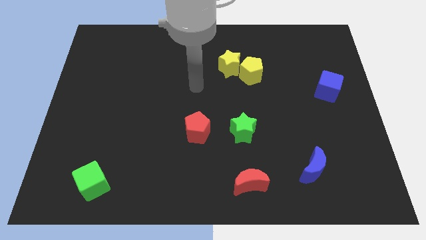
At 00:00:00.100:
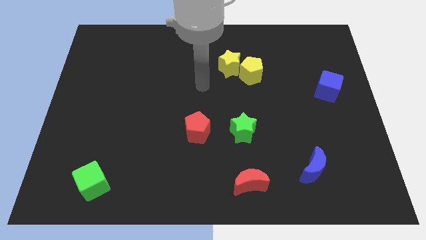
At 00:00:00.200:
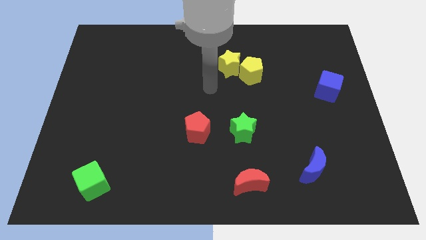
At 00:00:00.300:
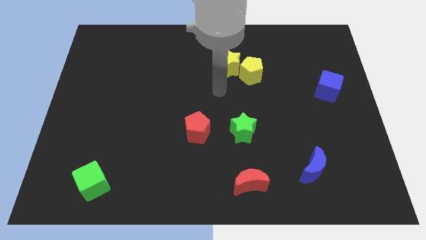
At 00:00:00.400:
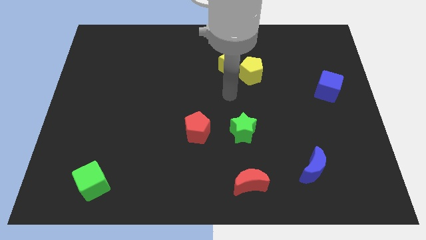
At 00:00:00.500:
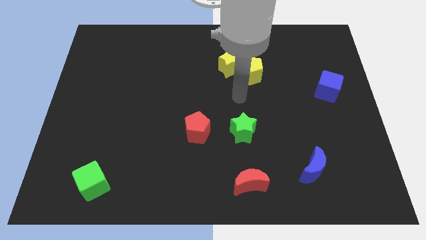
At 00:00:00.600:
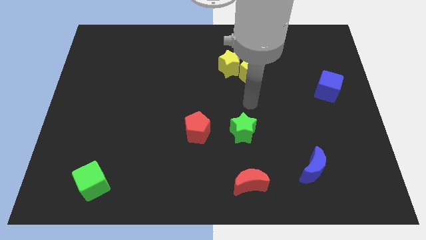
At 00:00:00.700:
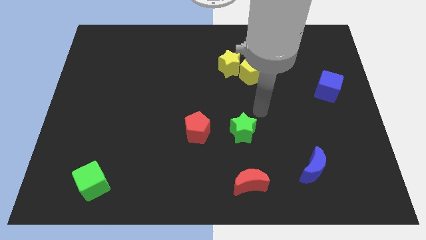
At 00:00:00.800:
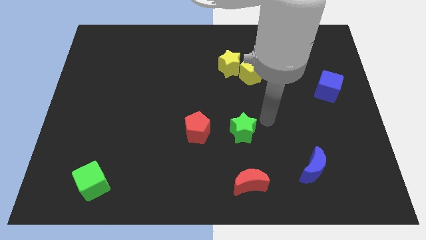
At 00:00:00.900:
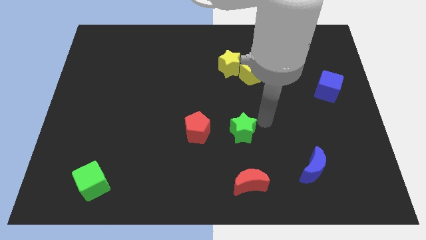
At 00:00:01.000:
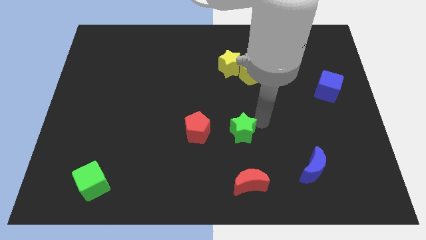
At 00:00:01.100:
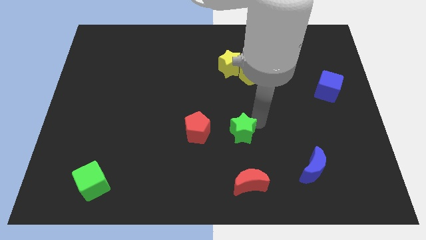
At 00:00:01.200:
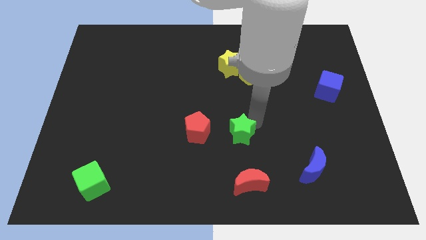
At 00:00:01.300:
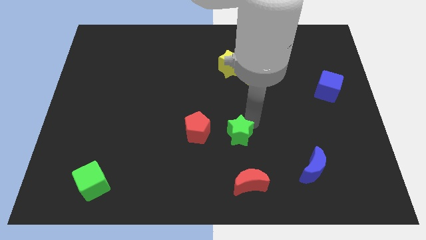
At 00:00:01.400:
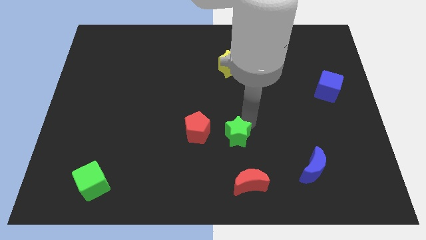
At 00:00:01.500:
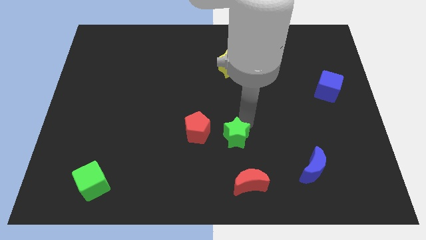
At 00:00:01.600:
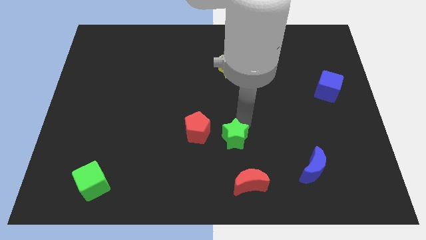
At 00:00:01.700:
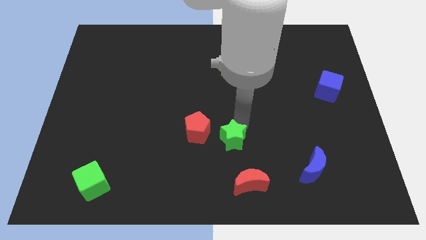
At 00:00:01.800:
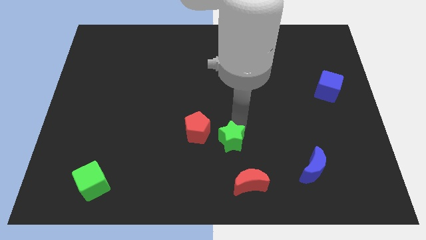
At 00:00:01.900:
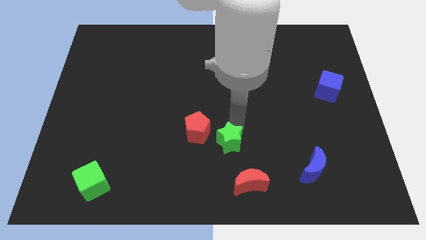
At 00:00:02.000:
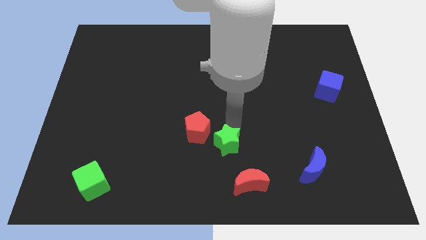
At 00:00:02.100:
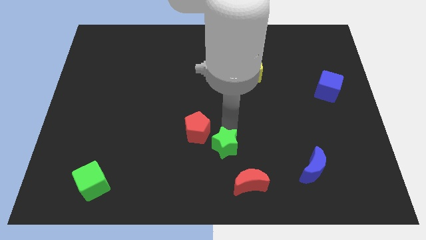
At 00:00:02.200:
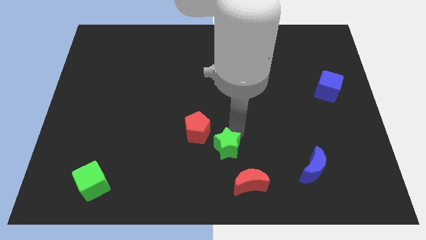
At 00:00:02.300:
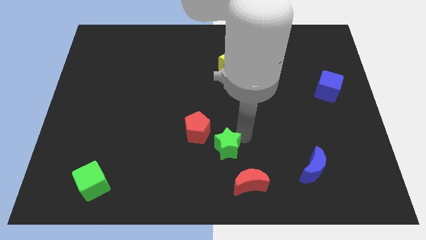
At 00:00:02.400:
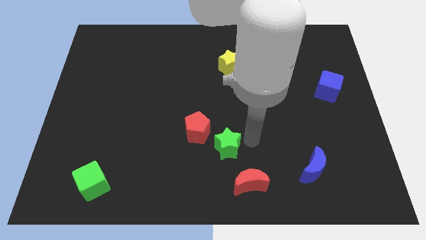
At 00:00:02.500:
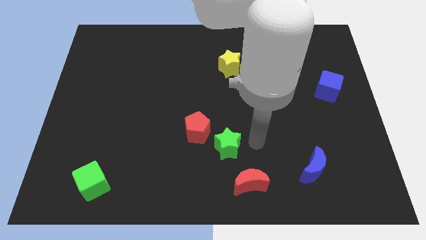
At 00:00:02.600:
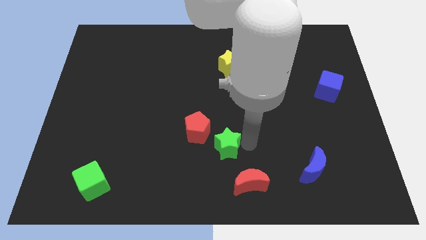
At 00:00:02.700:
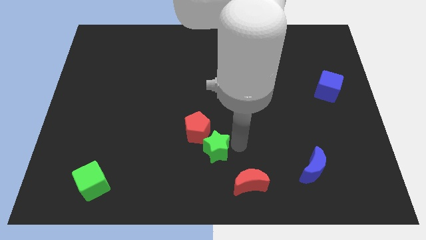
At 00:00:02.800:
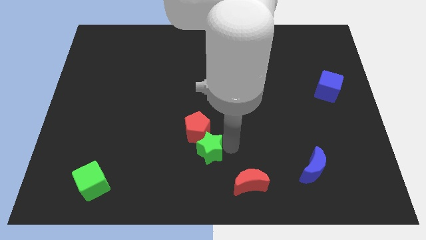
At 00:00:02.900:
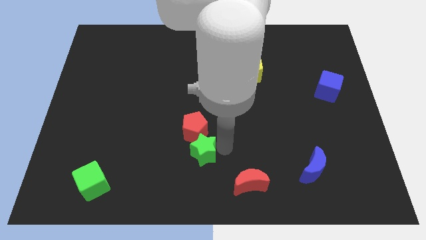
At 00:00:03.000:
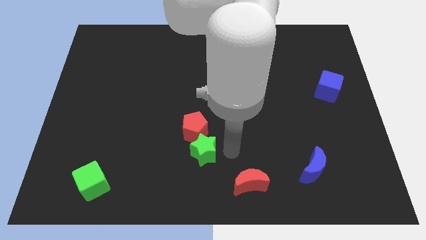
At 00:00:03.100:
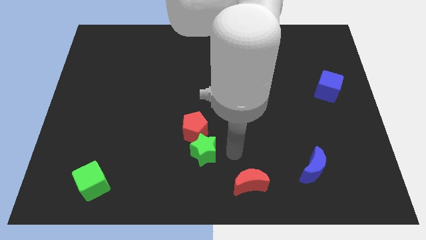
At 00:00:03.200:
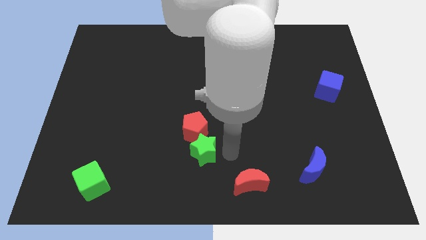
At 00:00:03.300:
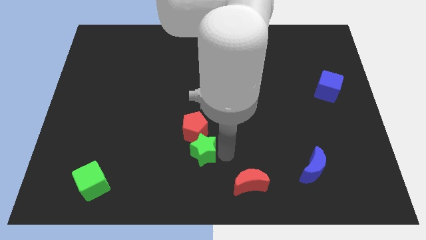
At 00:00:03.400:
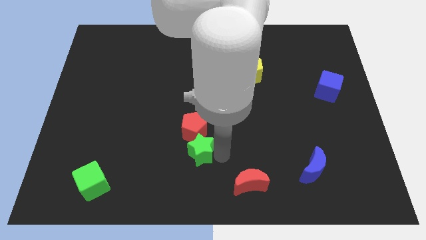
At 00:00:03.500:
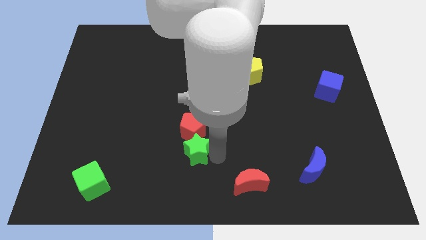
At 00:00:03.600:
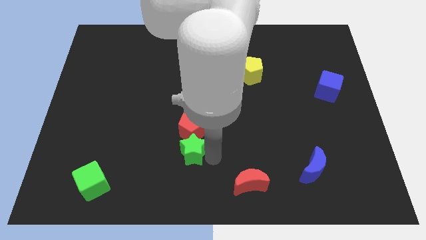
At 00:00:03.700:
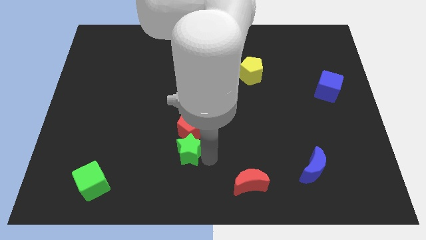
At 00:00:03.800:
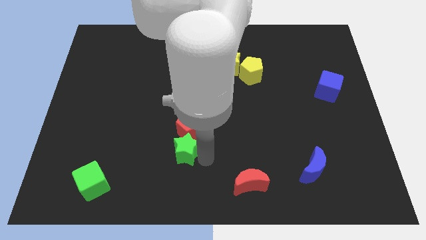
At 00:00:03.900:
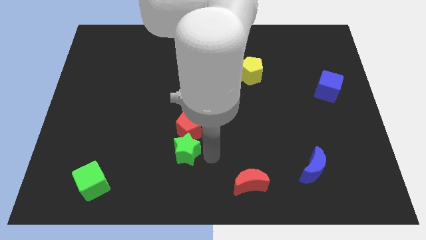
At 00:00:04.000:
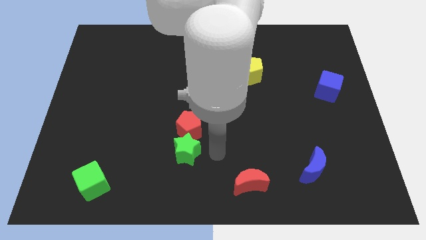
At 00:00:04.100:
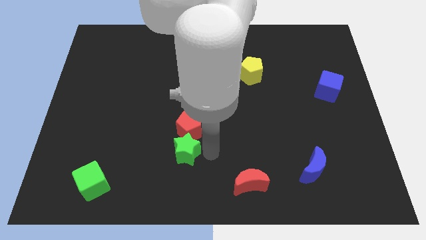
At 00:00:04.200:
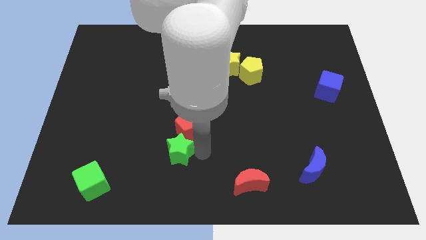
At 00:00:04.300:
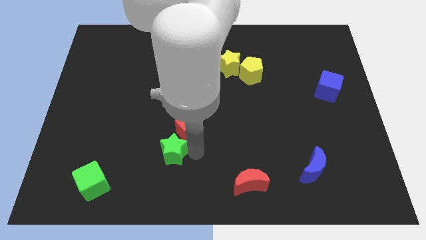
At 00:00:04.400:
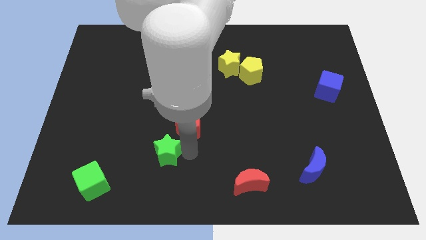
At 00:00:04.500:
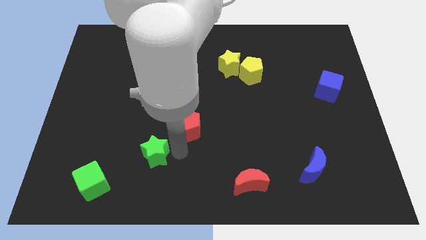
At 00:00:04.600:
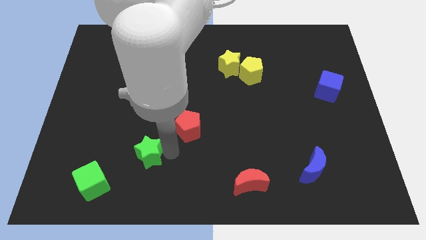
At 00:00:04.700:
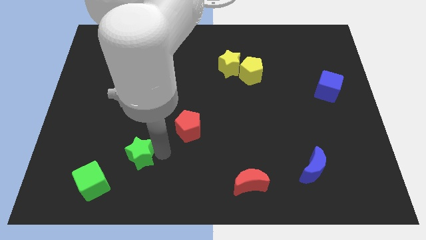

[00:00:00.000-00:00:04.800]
move the green star diagonally up and to the right of the green cube

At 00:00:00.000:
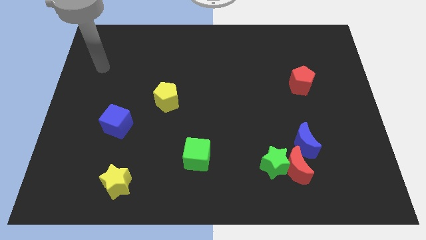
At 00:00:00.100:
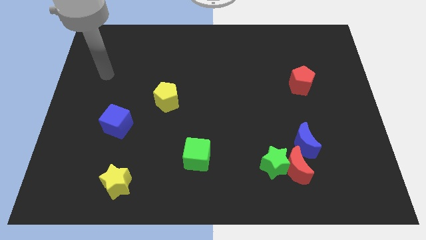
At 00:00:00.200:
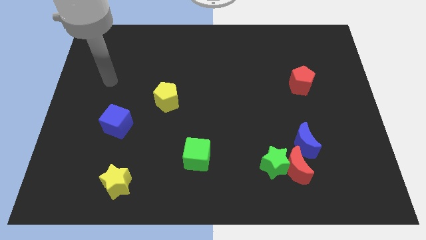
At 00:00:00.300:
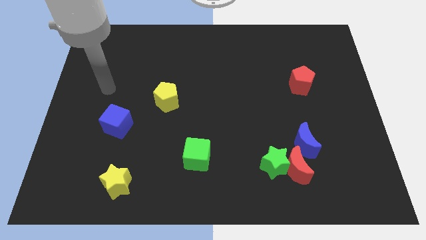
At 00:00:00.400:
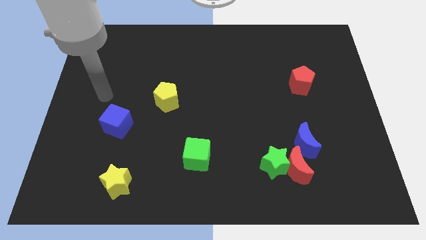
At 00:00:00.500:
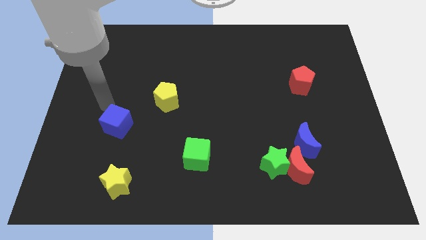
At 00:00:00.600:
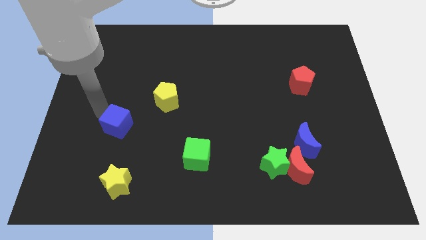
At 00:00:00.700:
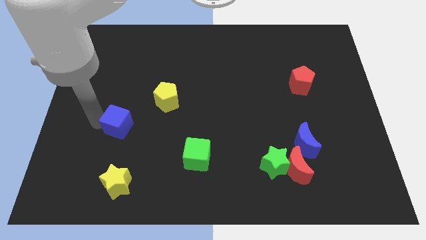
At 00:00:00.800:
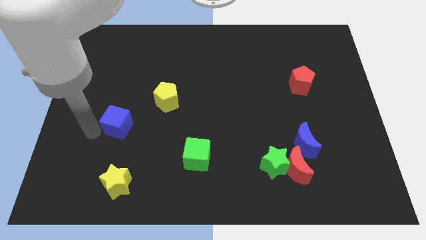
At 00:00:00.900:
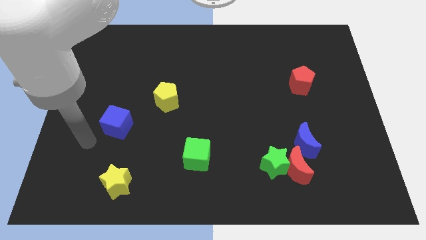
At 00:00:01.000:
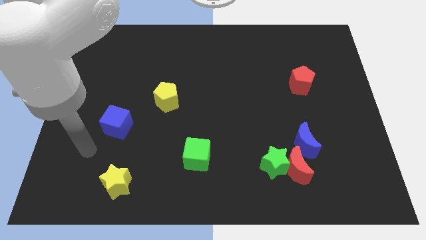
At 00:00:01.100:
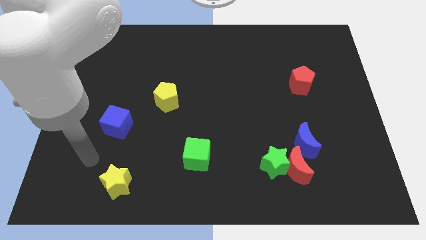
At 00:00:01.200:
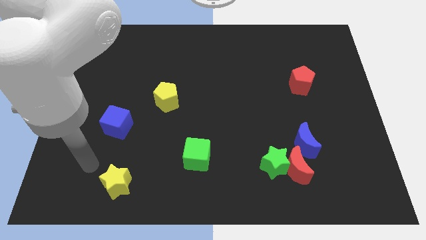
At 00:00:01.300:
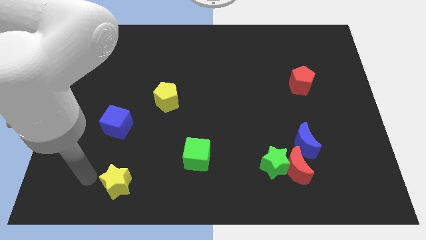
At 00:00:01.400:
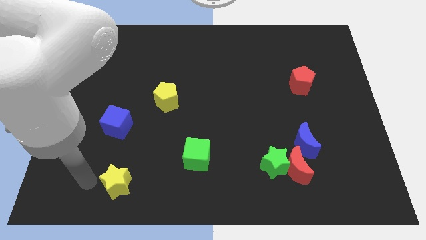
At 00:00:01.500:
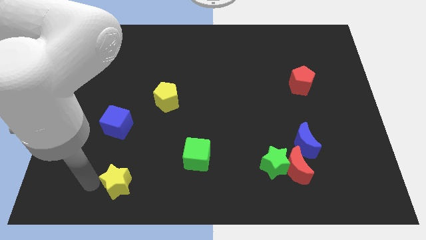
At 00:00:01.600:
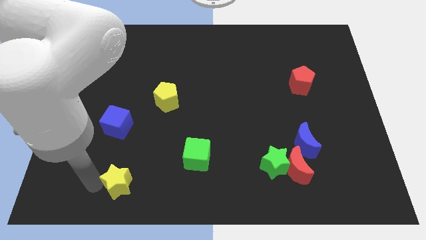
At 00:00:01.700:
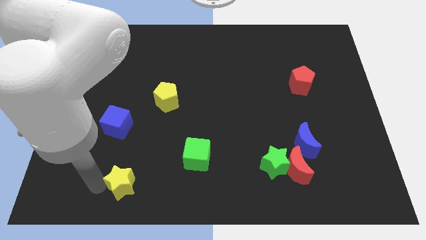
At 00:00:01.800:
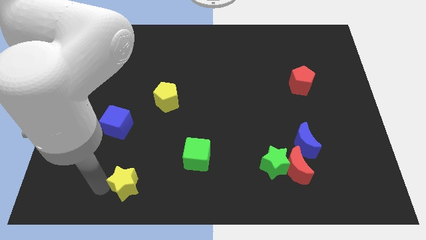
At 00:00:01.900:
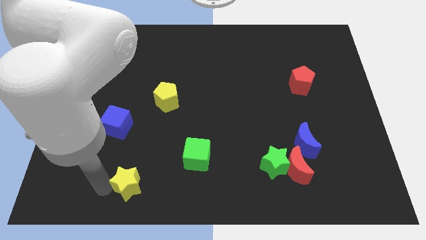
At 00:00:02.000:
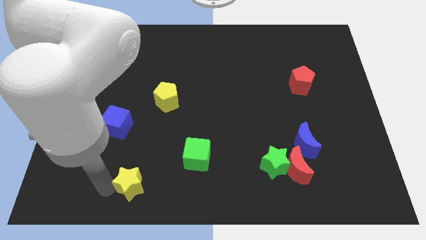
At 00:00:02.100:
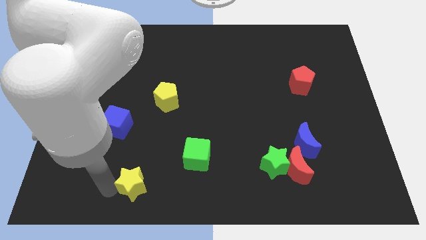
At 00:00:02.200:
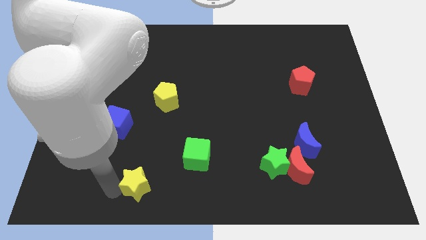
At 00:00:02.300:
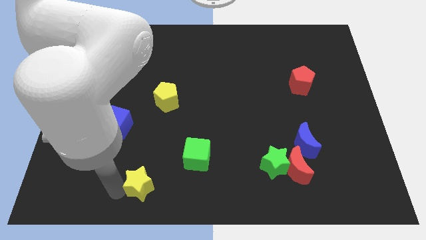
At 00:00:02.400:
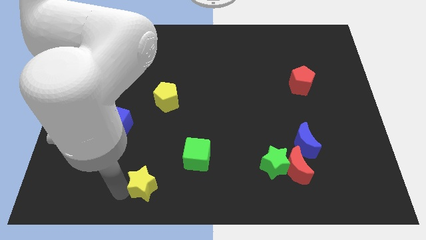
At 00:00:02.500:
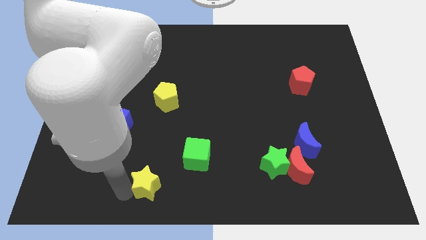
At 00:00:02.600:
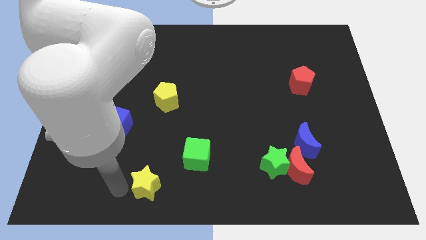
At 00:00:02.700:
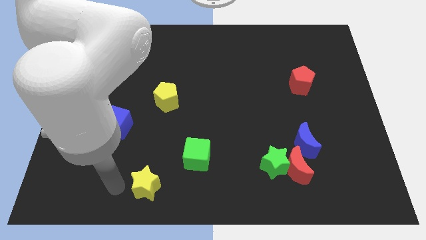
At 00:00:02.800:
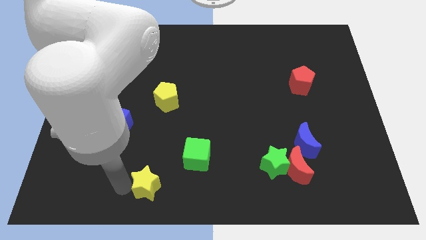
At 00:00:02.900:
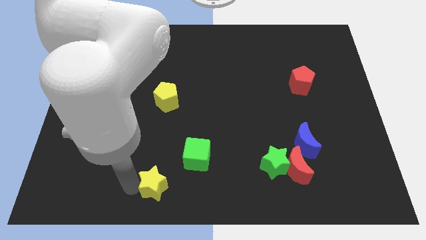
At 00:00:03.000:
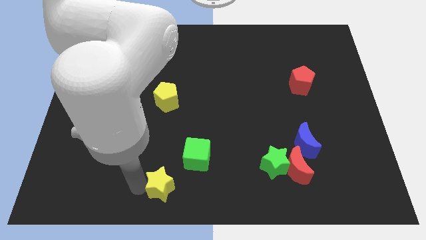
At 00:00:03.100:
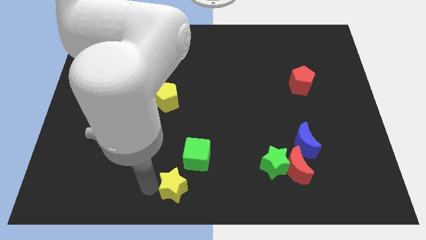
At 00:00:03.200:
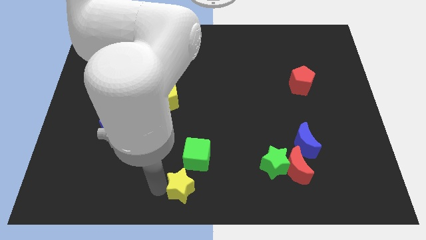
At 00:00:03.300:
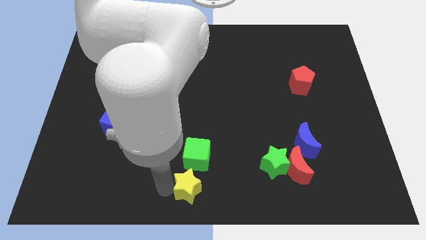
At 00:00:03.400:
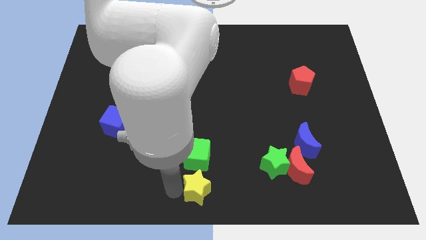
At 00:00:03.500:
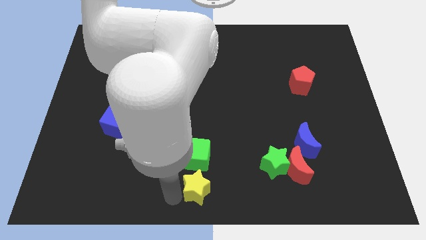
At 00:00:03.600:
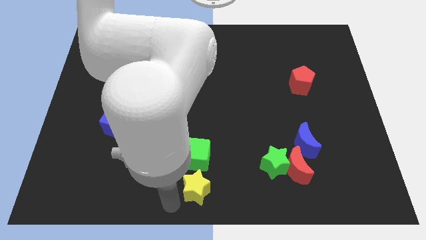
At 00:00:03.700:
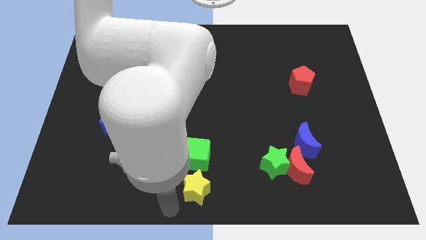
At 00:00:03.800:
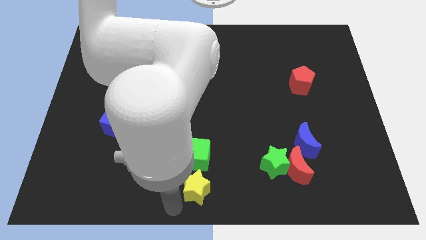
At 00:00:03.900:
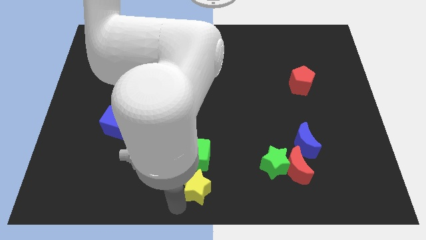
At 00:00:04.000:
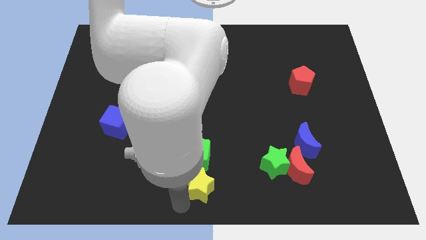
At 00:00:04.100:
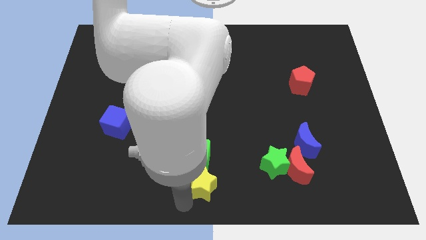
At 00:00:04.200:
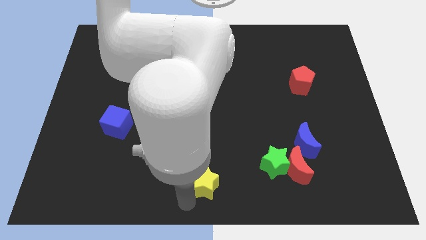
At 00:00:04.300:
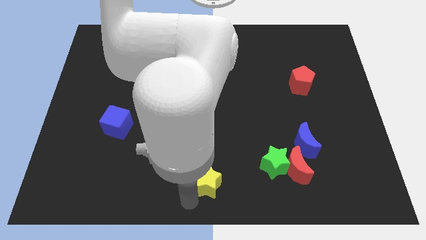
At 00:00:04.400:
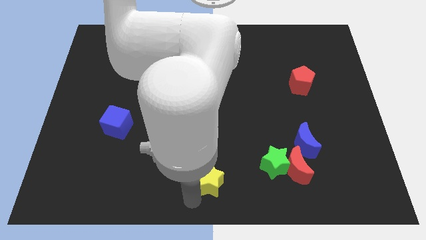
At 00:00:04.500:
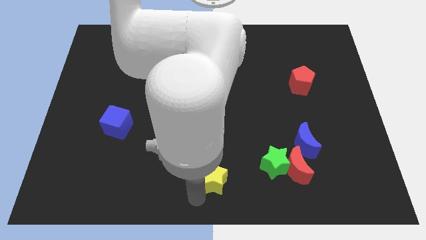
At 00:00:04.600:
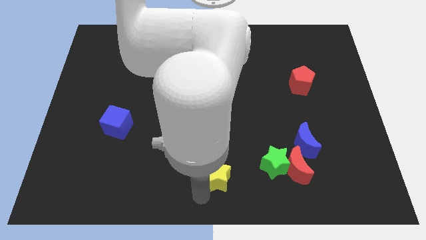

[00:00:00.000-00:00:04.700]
slide the yellow star to the right of the green cube
